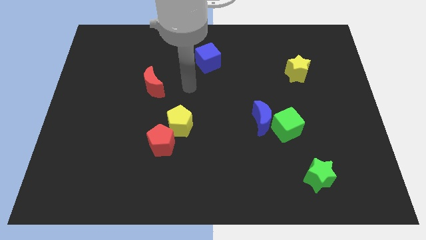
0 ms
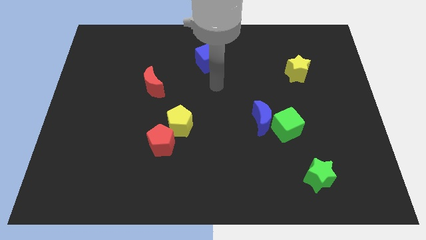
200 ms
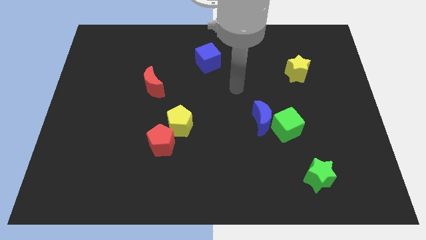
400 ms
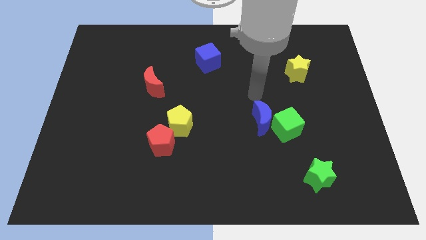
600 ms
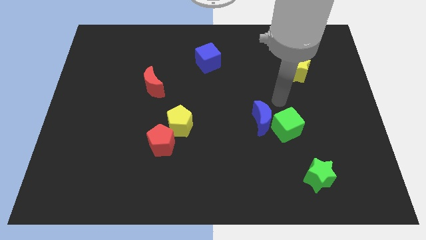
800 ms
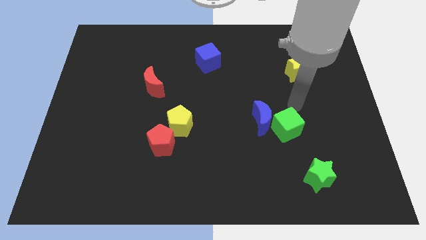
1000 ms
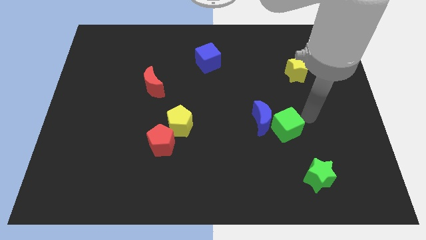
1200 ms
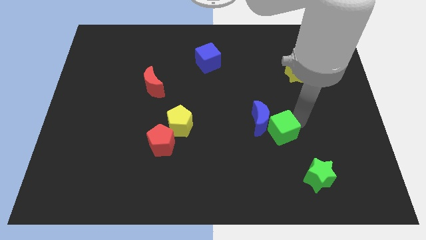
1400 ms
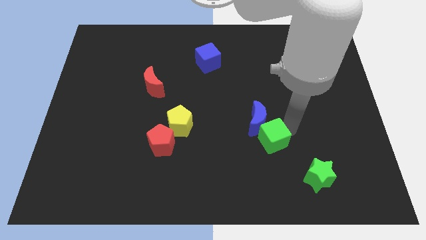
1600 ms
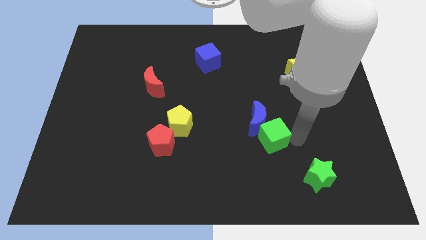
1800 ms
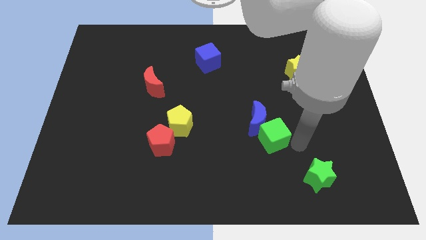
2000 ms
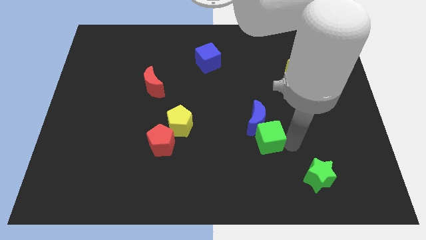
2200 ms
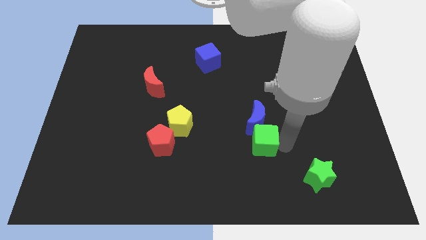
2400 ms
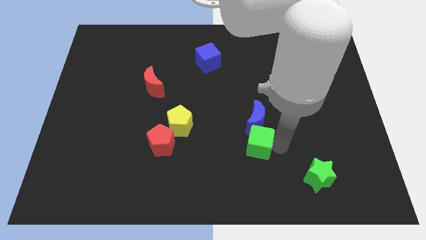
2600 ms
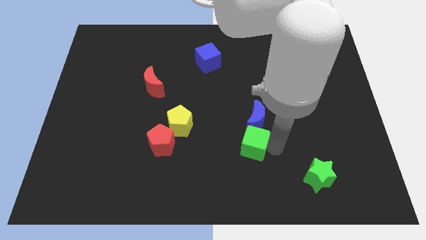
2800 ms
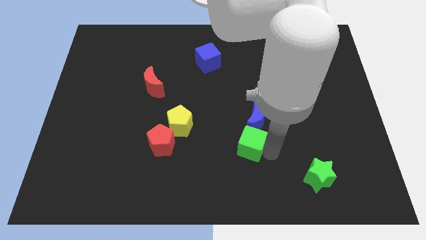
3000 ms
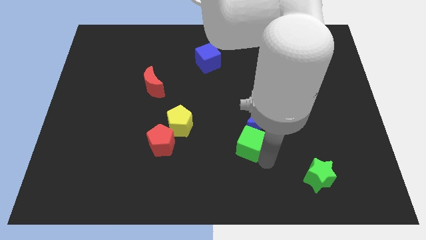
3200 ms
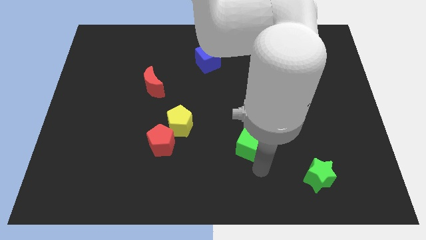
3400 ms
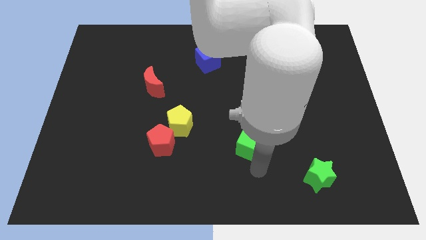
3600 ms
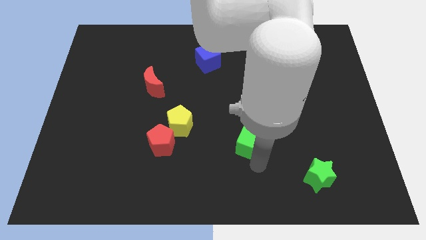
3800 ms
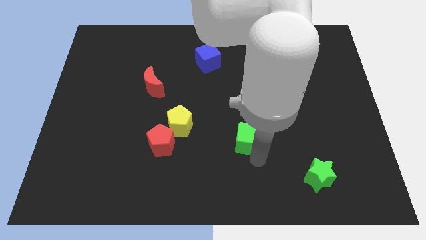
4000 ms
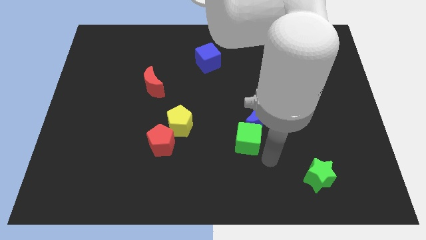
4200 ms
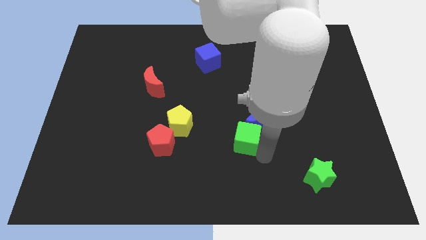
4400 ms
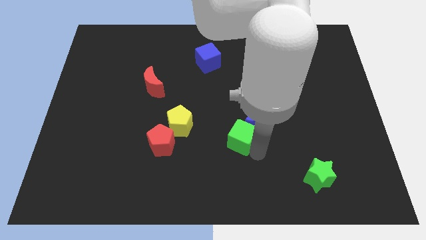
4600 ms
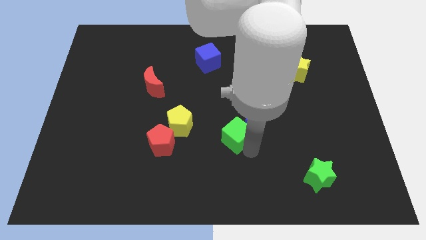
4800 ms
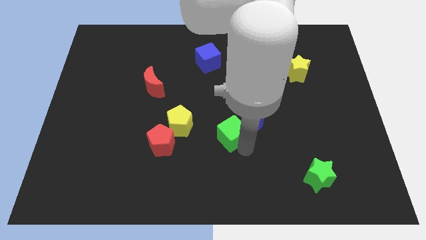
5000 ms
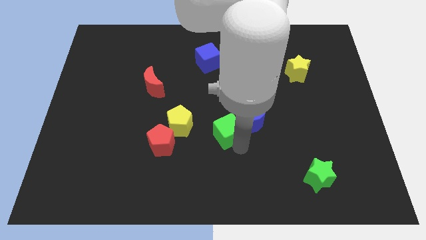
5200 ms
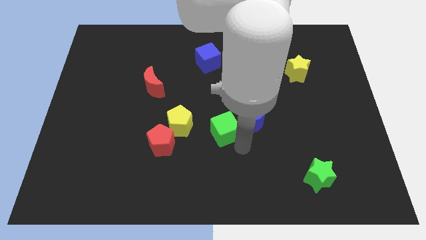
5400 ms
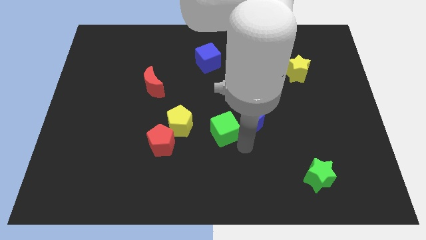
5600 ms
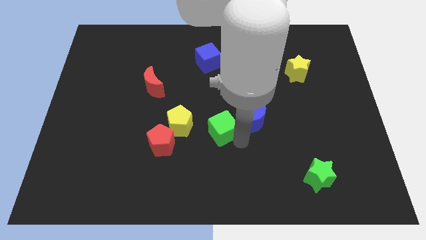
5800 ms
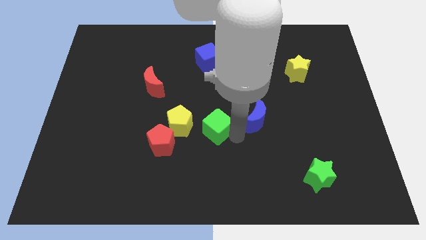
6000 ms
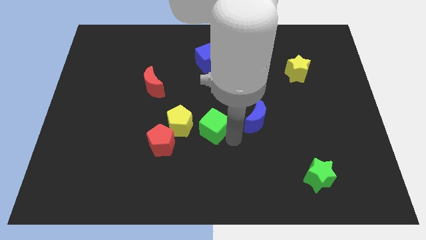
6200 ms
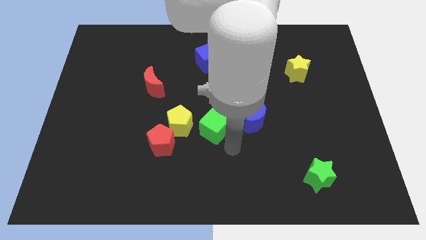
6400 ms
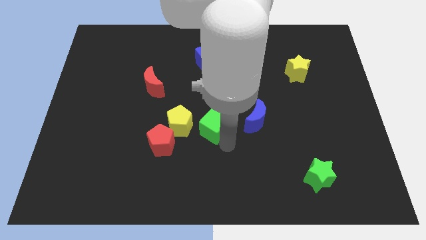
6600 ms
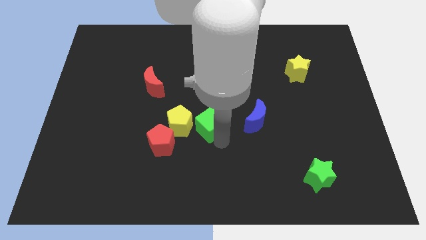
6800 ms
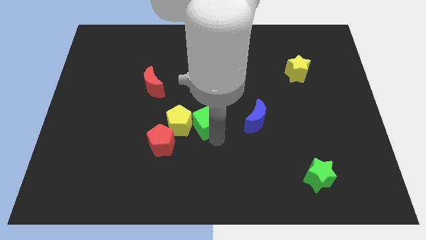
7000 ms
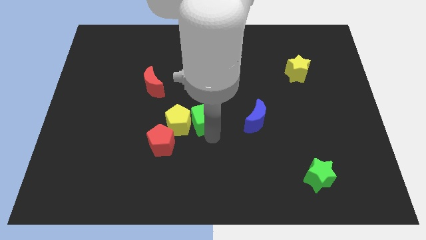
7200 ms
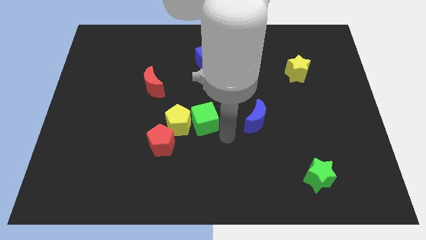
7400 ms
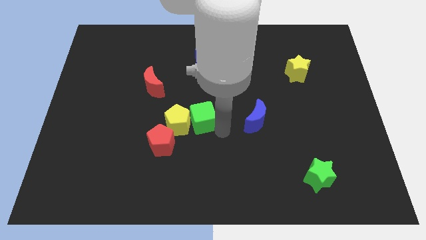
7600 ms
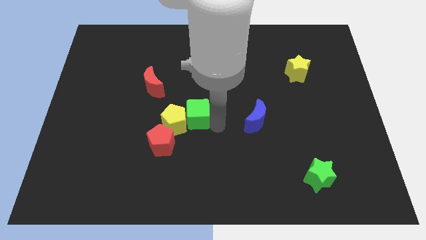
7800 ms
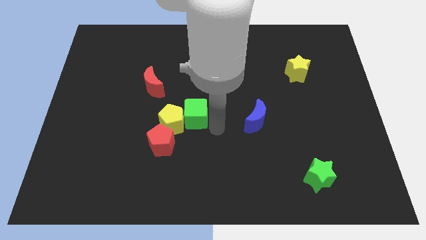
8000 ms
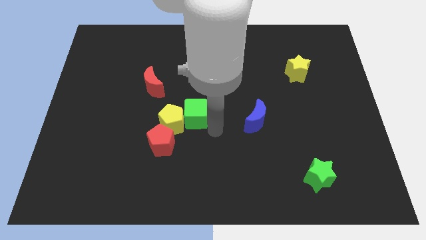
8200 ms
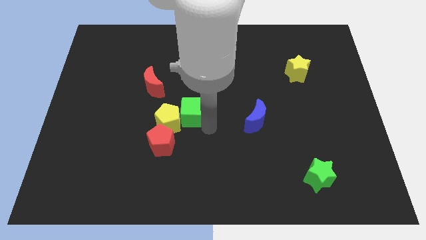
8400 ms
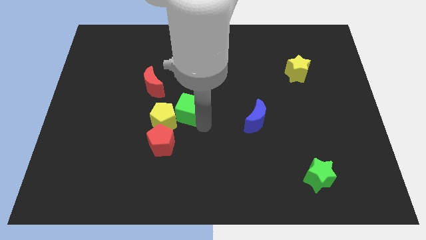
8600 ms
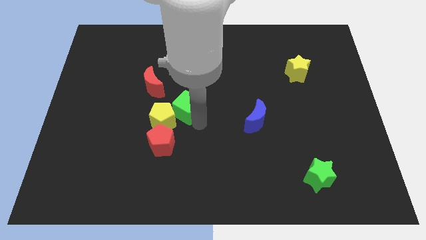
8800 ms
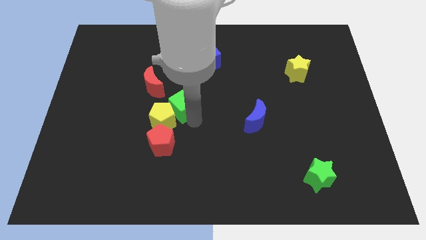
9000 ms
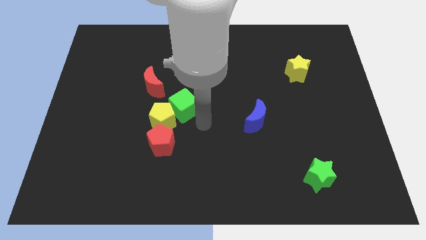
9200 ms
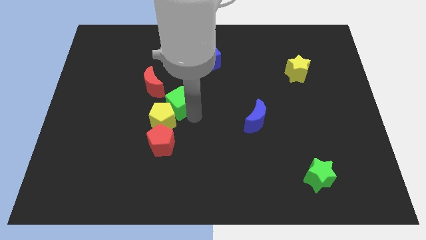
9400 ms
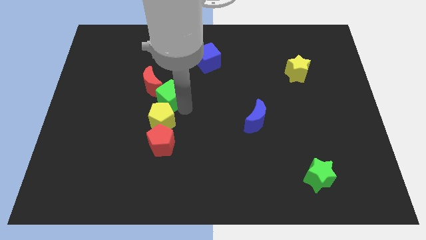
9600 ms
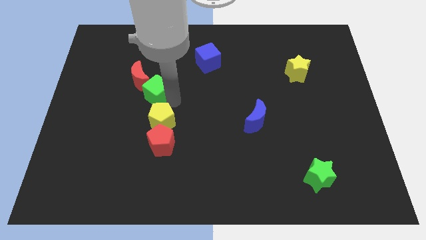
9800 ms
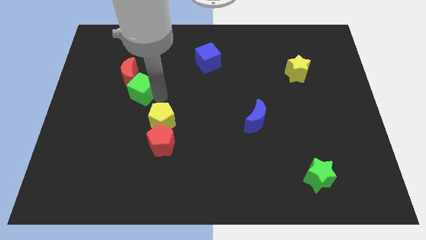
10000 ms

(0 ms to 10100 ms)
push the green cube close to the red moon

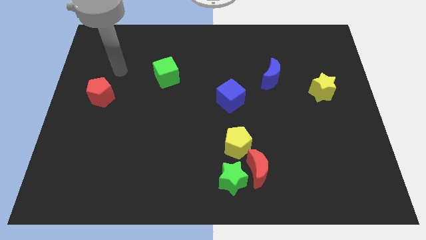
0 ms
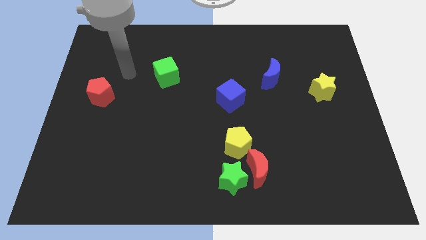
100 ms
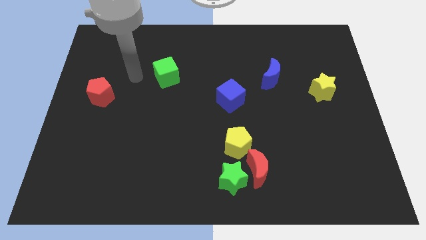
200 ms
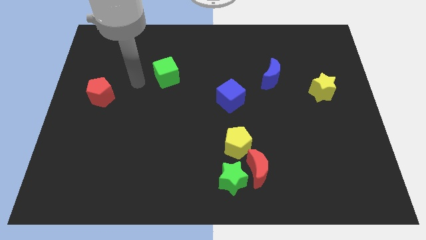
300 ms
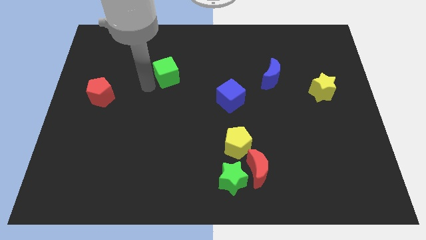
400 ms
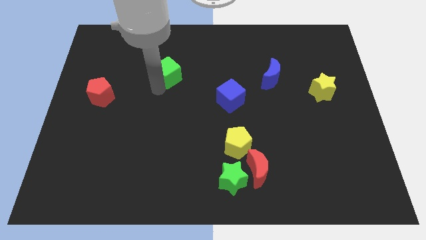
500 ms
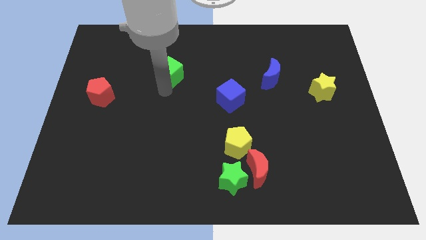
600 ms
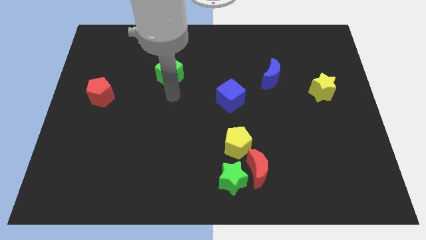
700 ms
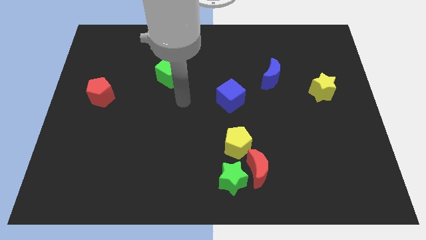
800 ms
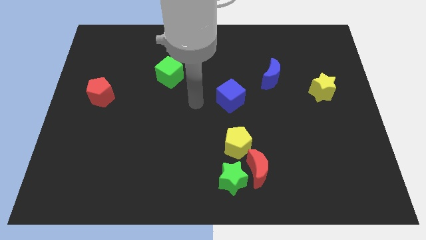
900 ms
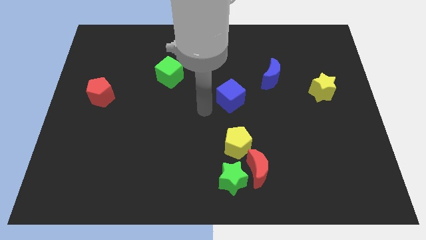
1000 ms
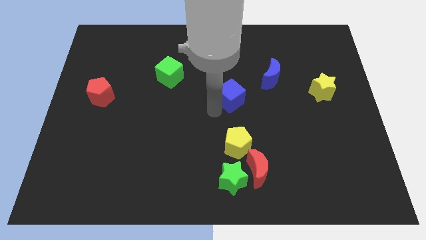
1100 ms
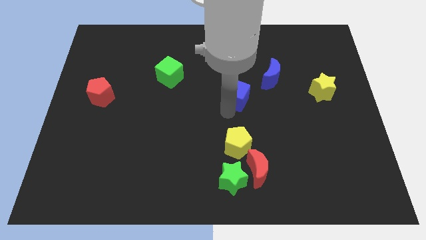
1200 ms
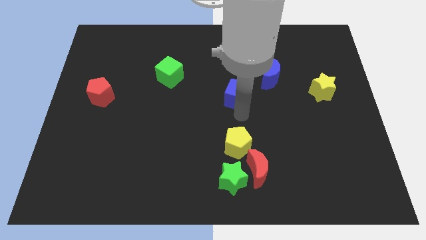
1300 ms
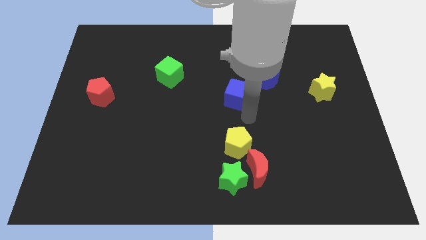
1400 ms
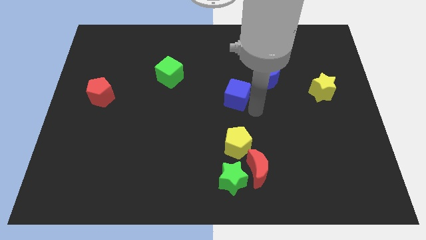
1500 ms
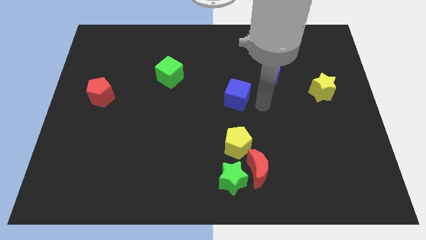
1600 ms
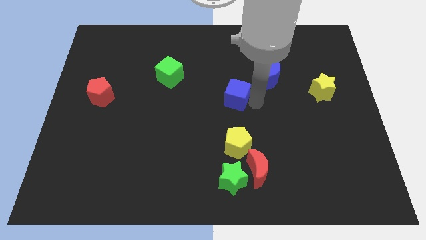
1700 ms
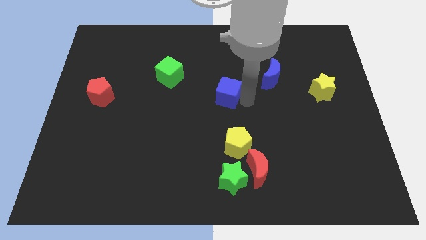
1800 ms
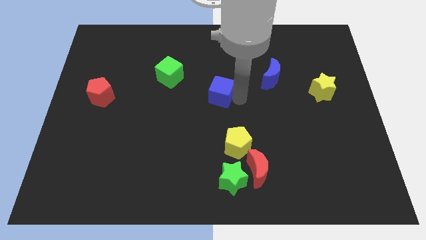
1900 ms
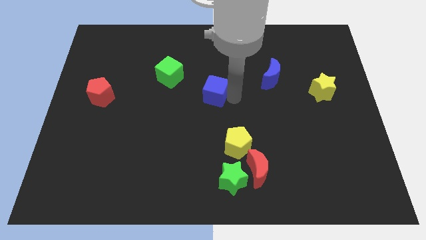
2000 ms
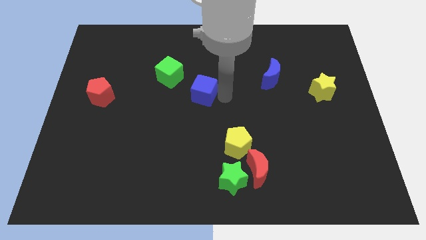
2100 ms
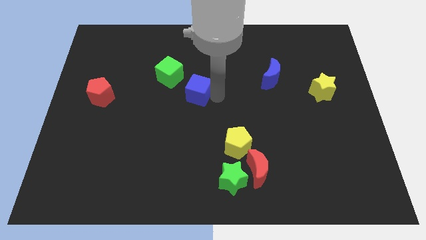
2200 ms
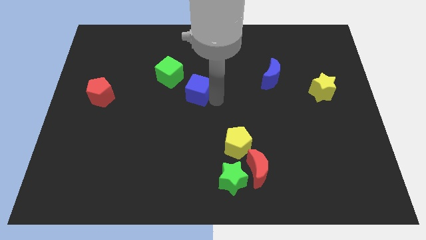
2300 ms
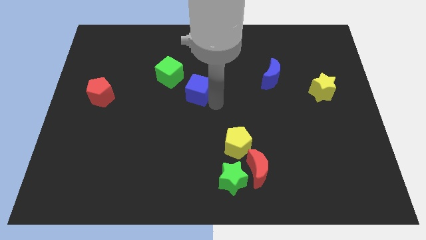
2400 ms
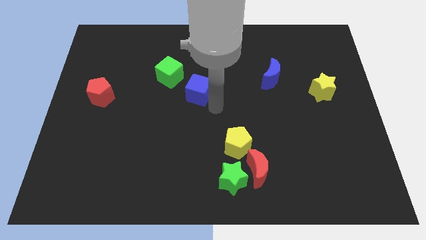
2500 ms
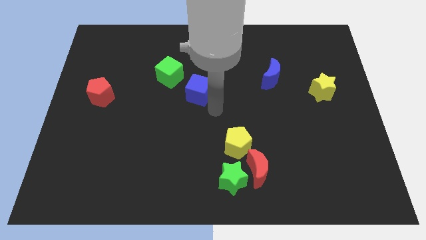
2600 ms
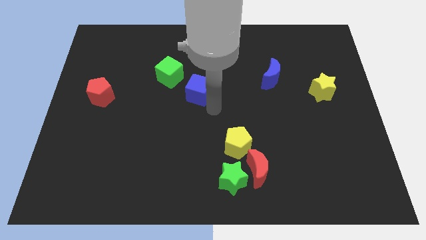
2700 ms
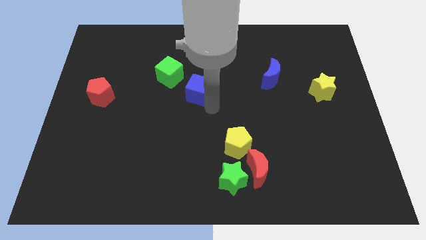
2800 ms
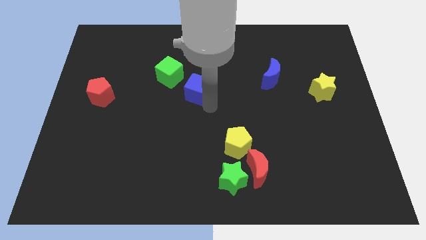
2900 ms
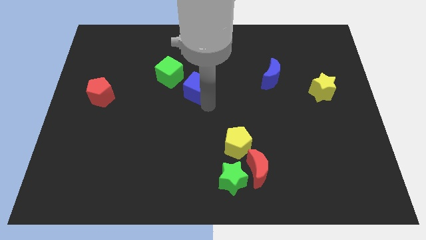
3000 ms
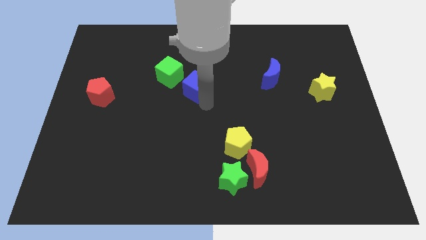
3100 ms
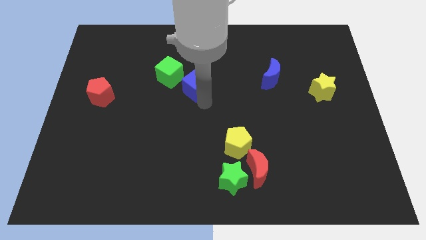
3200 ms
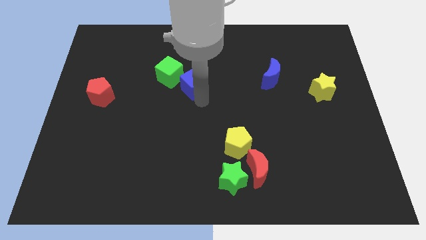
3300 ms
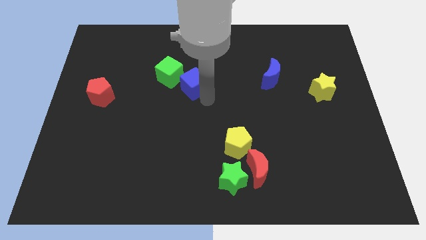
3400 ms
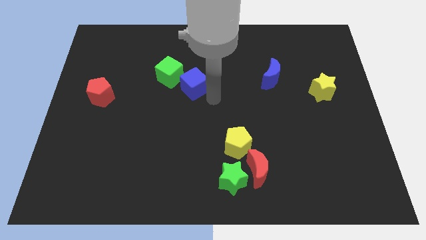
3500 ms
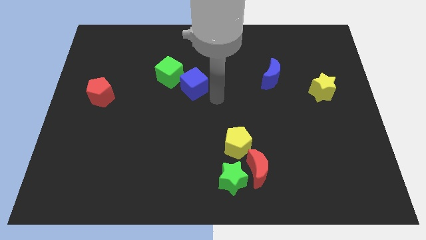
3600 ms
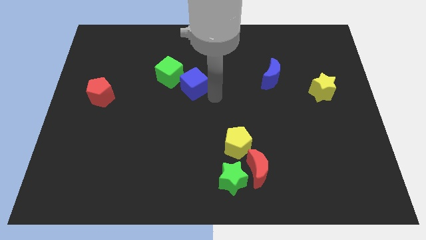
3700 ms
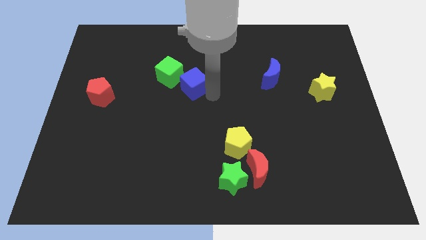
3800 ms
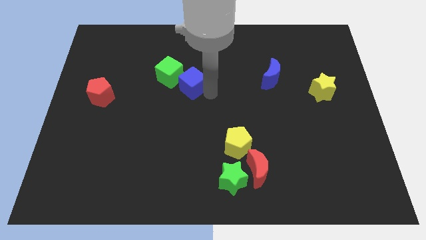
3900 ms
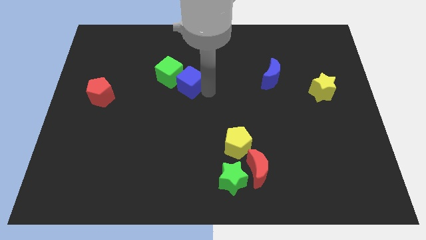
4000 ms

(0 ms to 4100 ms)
move the blue cube towards the green cube
